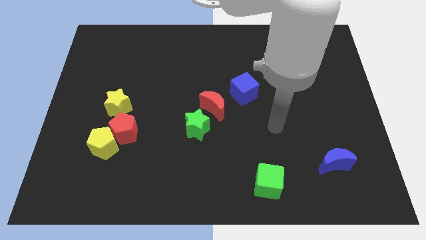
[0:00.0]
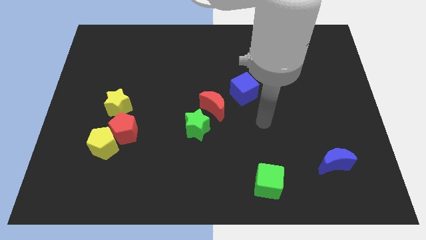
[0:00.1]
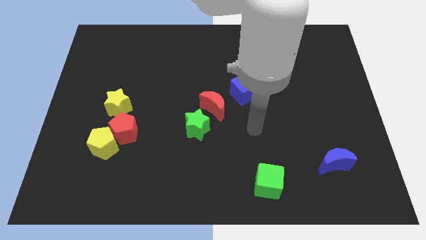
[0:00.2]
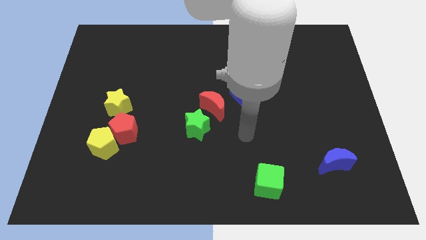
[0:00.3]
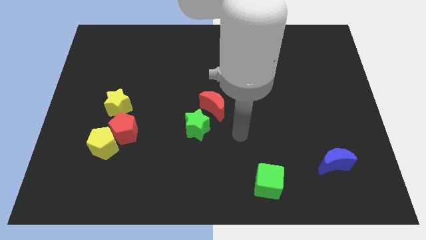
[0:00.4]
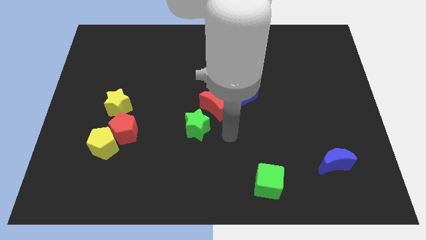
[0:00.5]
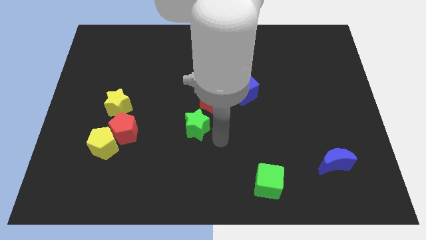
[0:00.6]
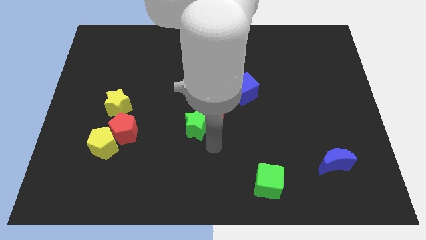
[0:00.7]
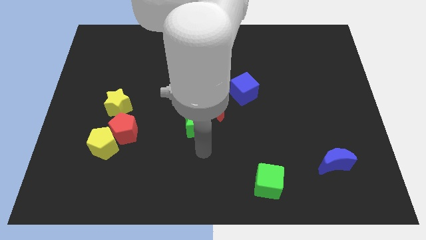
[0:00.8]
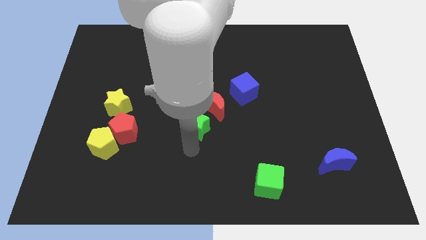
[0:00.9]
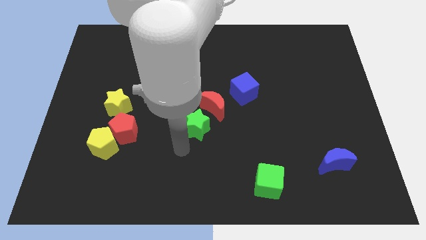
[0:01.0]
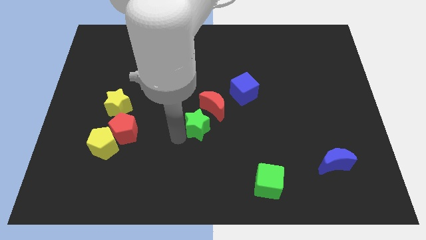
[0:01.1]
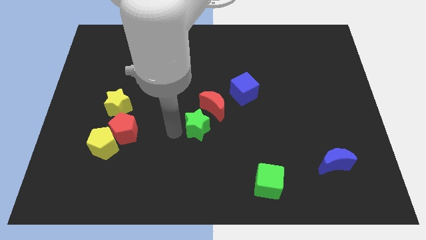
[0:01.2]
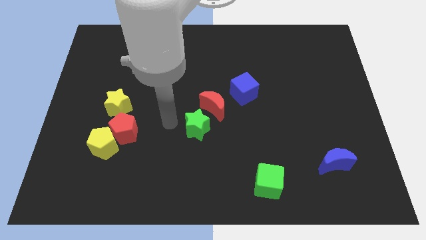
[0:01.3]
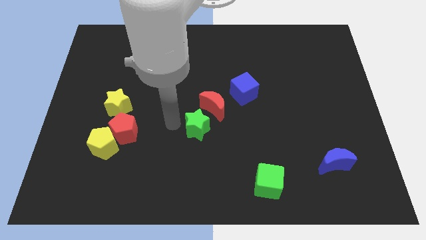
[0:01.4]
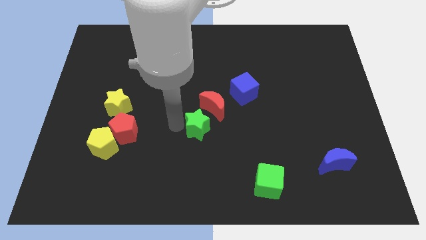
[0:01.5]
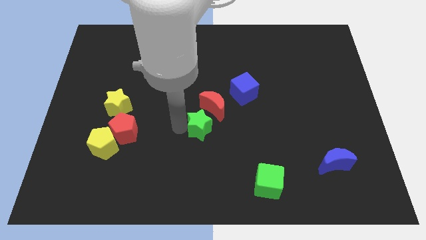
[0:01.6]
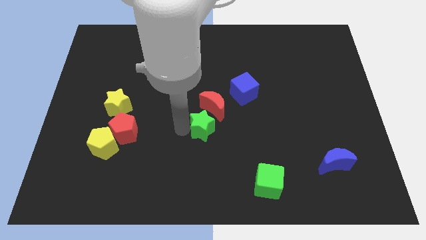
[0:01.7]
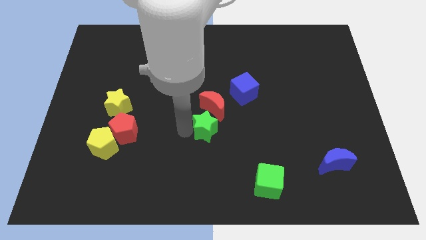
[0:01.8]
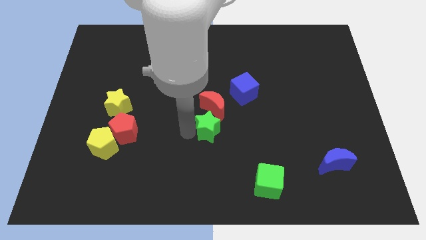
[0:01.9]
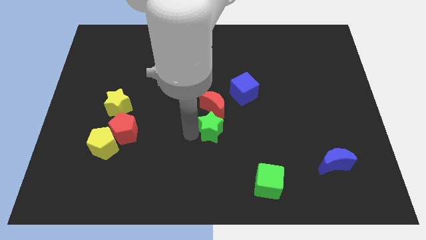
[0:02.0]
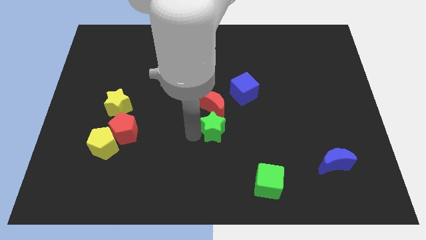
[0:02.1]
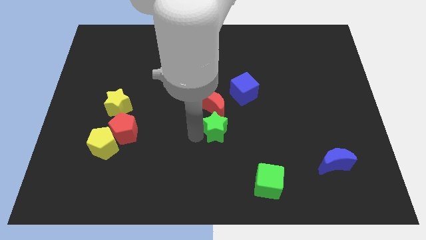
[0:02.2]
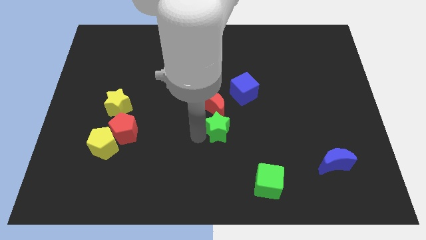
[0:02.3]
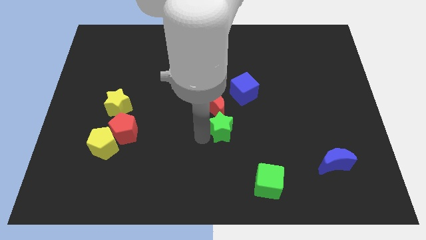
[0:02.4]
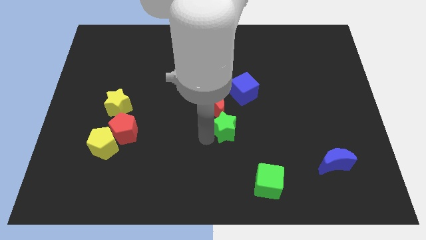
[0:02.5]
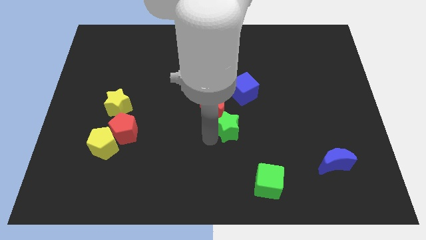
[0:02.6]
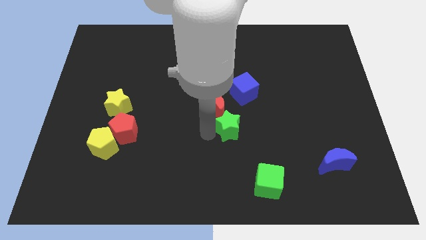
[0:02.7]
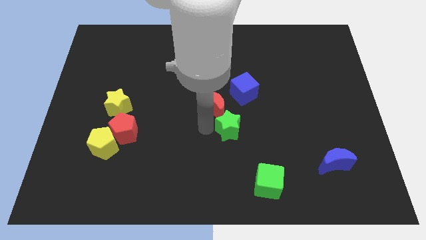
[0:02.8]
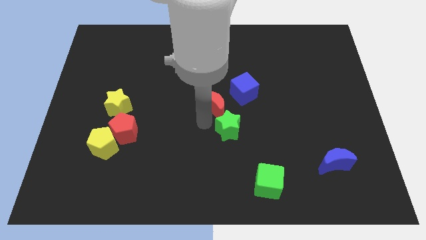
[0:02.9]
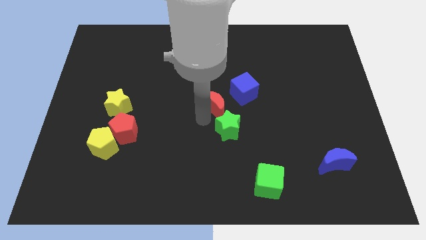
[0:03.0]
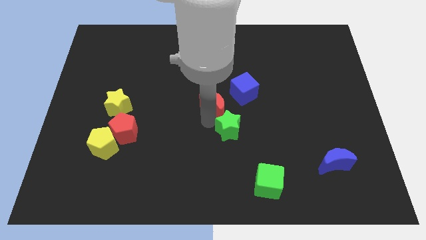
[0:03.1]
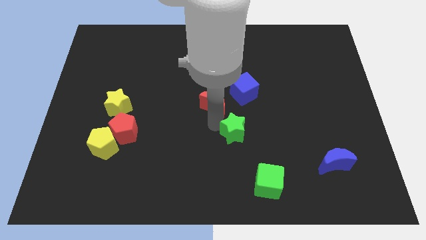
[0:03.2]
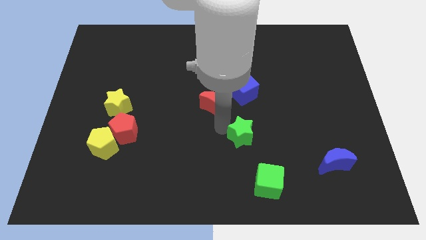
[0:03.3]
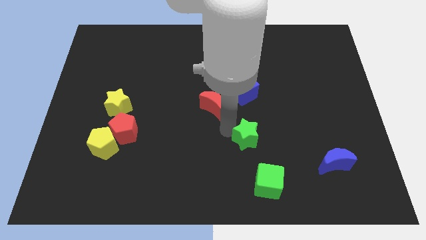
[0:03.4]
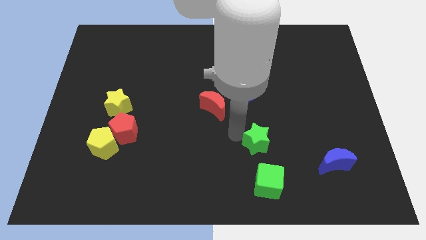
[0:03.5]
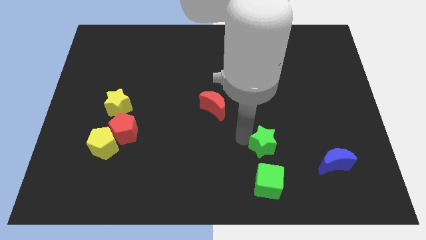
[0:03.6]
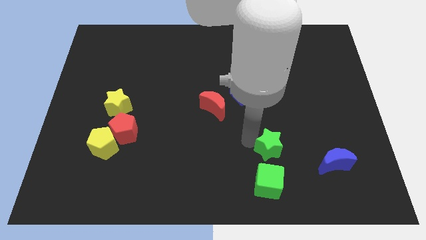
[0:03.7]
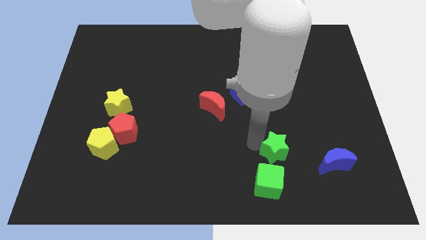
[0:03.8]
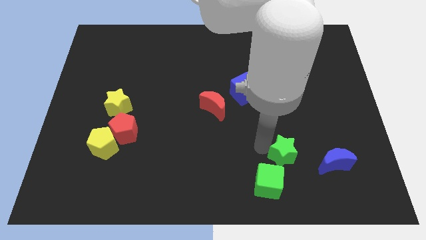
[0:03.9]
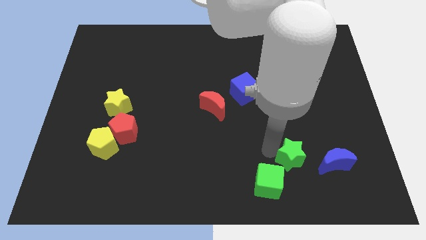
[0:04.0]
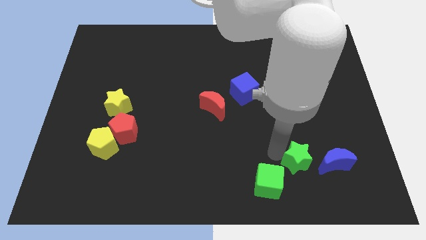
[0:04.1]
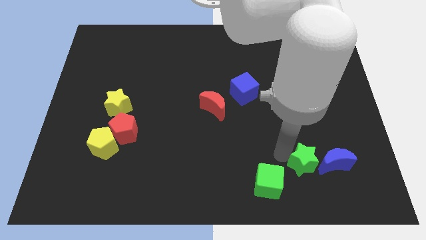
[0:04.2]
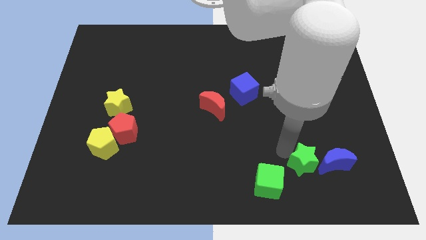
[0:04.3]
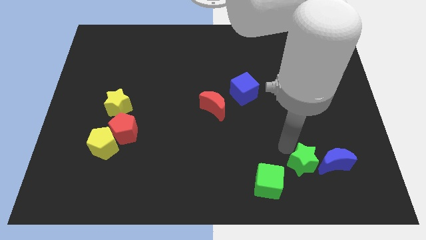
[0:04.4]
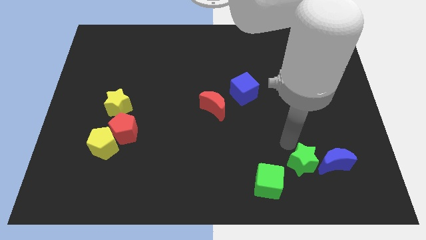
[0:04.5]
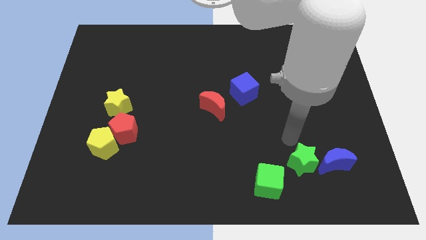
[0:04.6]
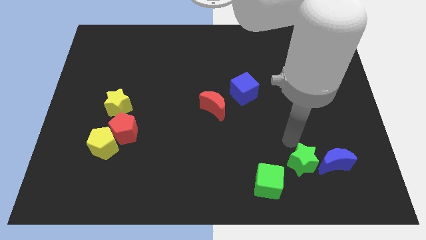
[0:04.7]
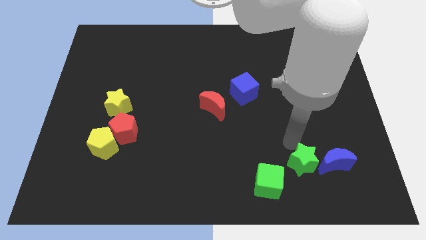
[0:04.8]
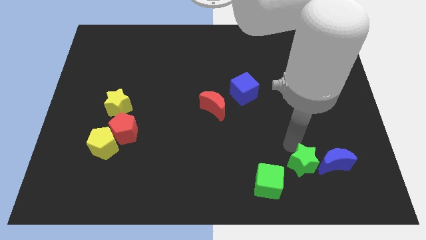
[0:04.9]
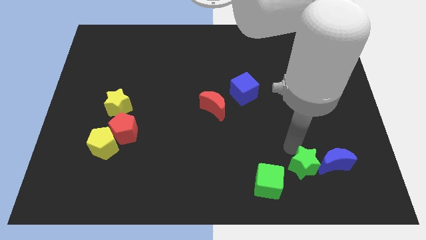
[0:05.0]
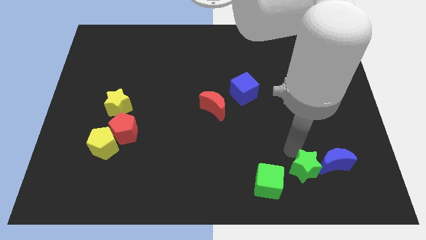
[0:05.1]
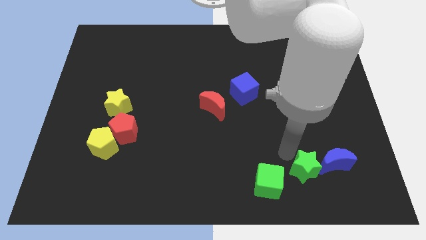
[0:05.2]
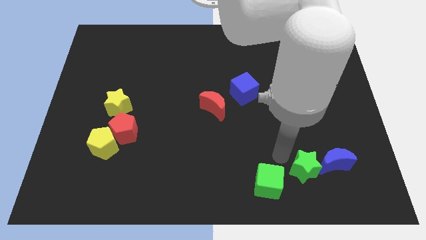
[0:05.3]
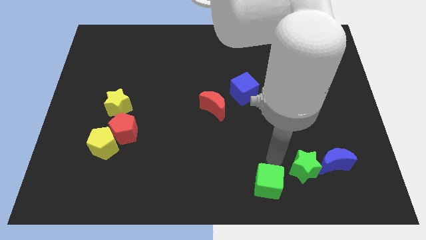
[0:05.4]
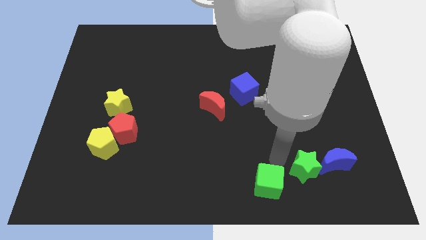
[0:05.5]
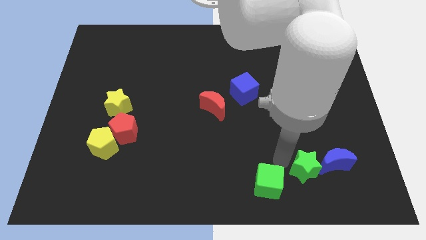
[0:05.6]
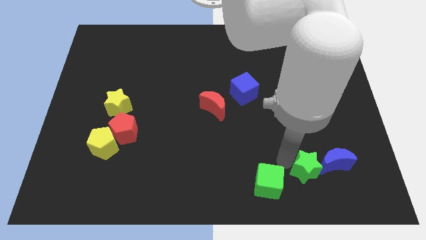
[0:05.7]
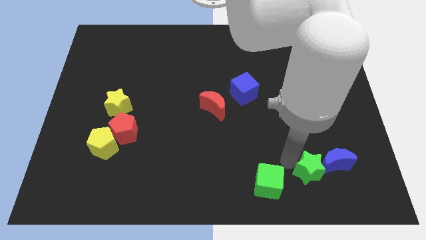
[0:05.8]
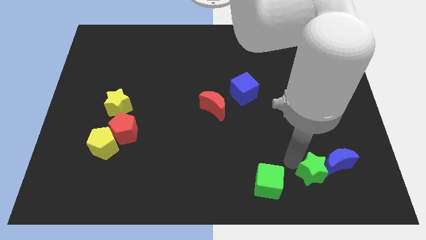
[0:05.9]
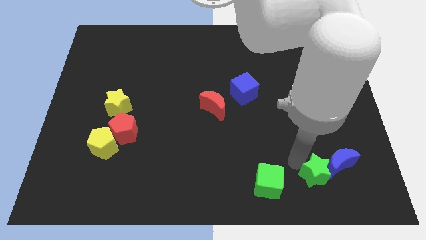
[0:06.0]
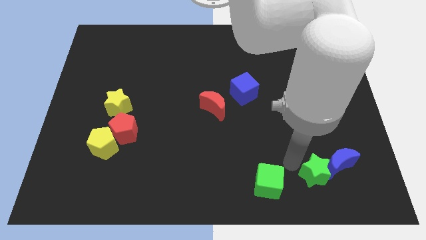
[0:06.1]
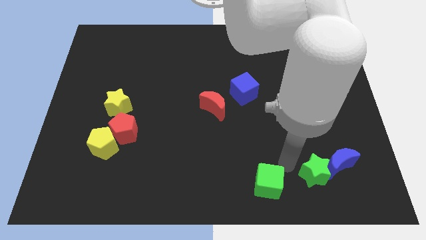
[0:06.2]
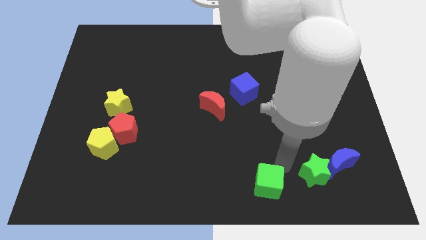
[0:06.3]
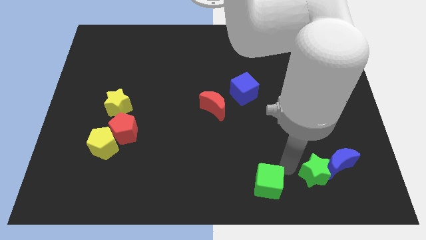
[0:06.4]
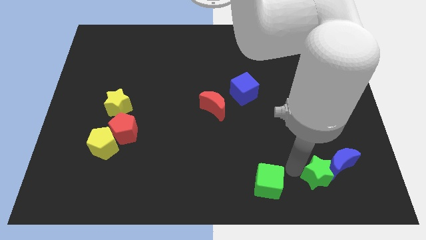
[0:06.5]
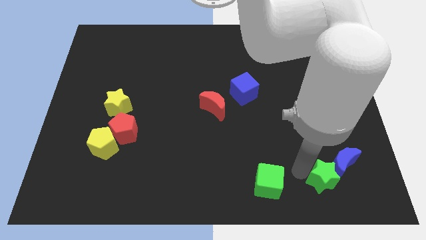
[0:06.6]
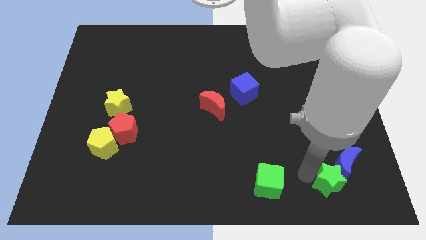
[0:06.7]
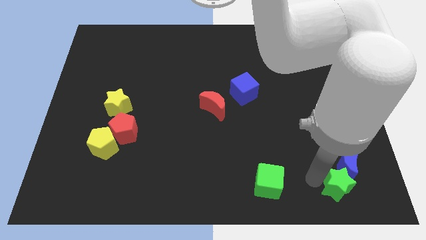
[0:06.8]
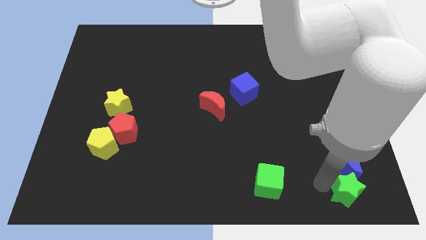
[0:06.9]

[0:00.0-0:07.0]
move the green star to the bottom right corner
